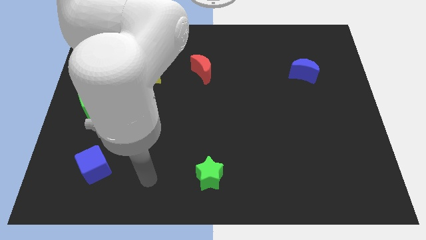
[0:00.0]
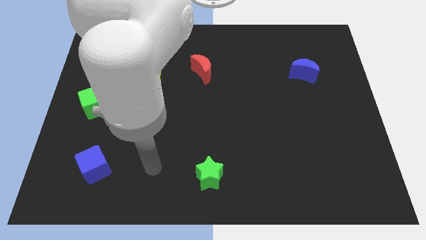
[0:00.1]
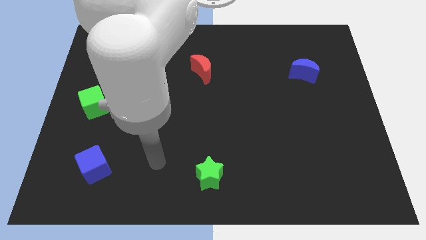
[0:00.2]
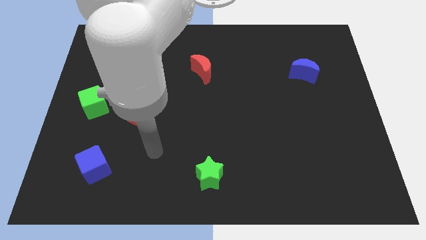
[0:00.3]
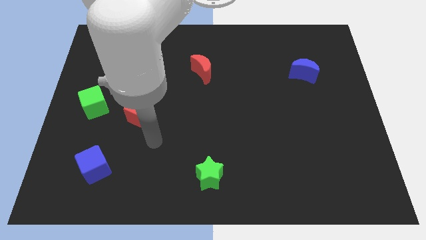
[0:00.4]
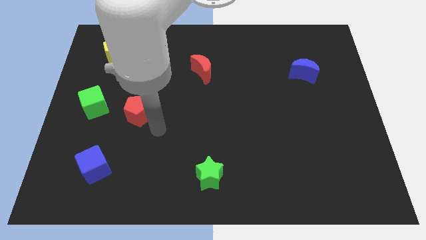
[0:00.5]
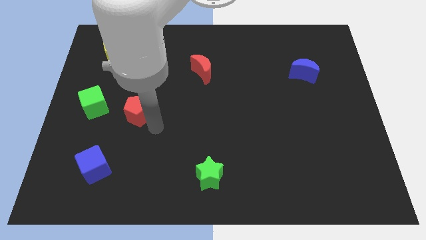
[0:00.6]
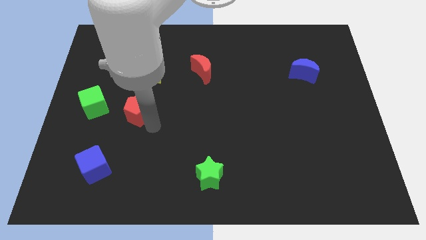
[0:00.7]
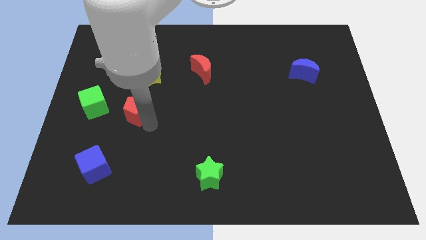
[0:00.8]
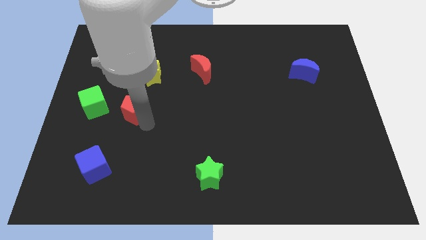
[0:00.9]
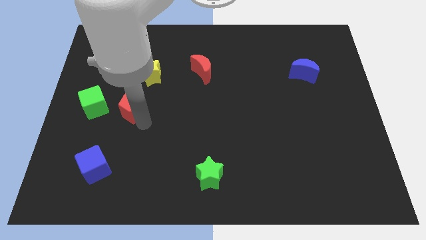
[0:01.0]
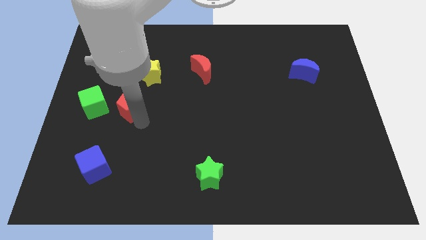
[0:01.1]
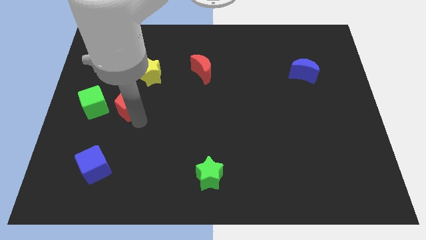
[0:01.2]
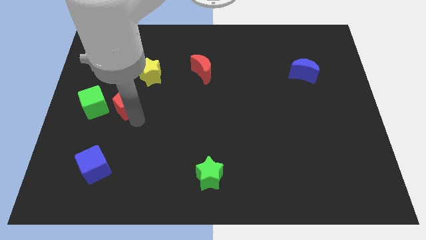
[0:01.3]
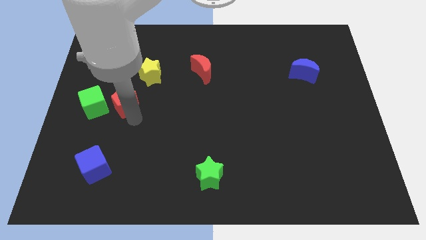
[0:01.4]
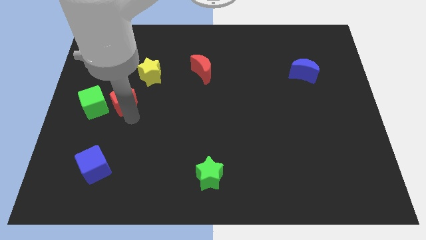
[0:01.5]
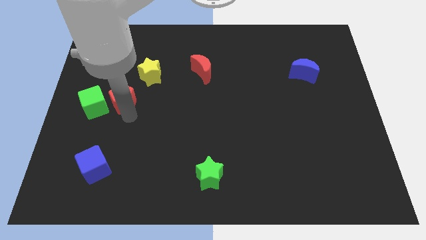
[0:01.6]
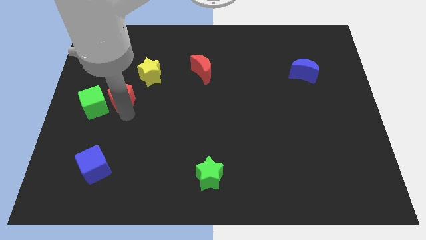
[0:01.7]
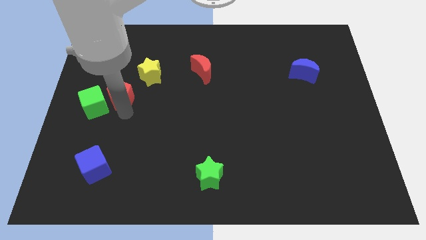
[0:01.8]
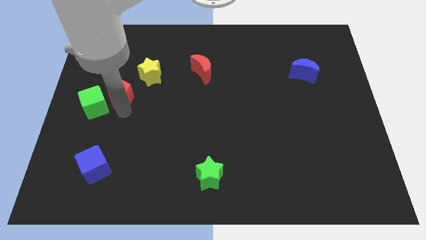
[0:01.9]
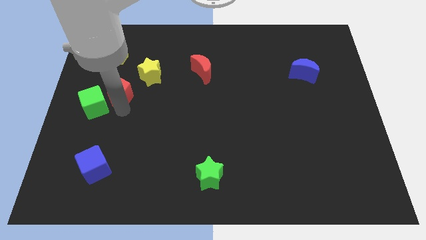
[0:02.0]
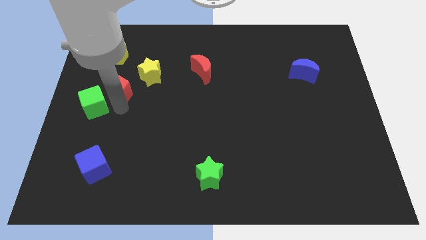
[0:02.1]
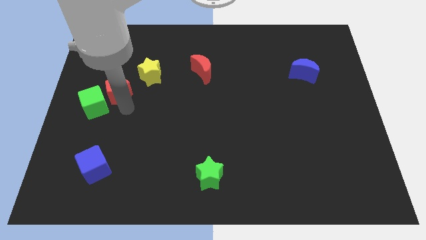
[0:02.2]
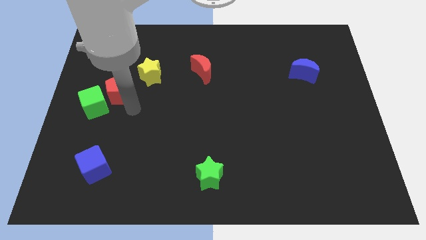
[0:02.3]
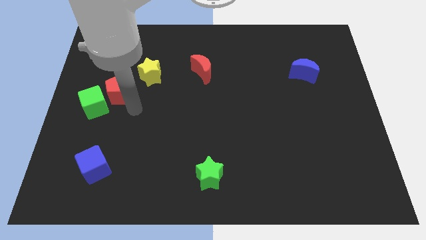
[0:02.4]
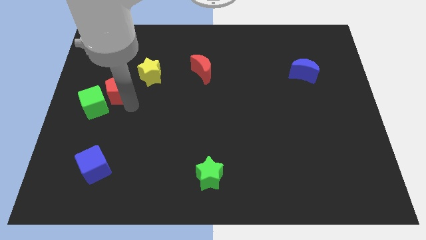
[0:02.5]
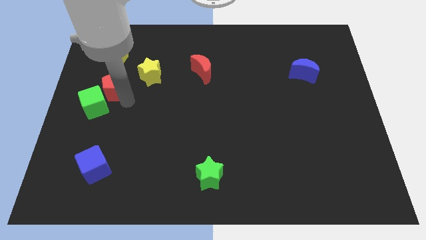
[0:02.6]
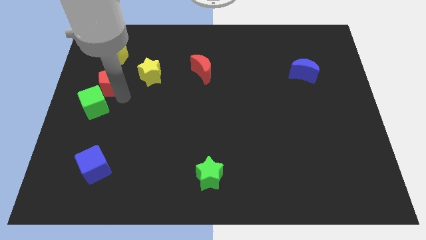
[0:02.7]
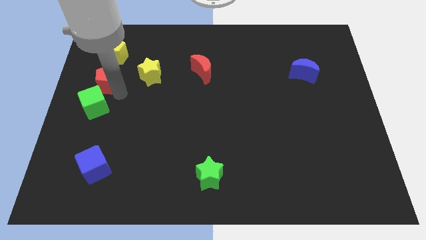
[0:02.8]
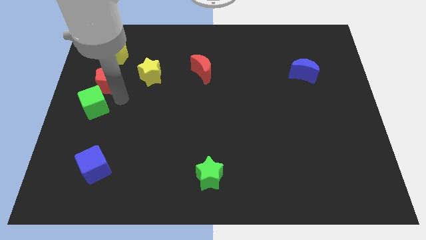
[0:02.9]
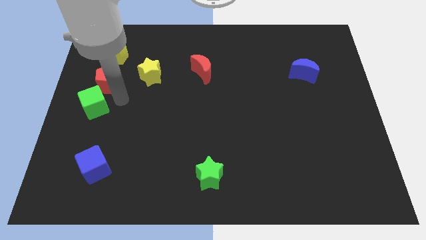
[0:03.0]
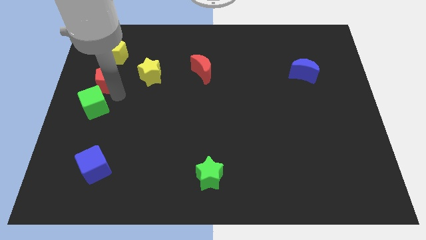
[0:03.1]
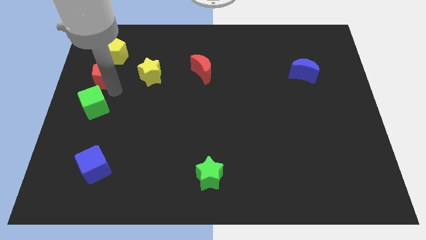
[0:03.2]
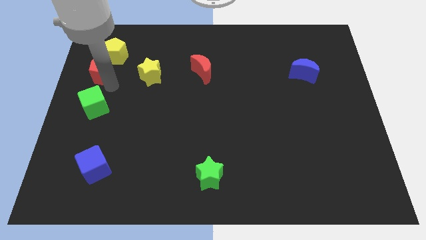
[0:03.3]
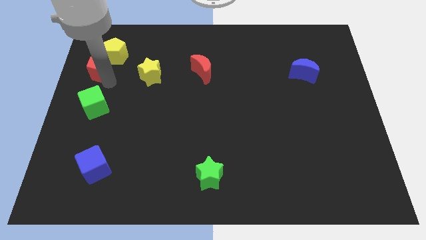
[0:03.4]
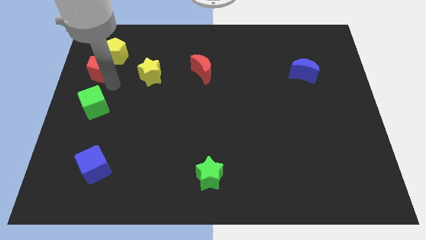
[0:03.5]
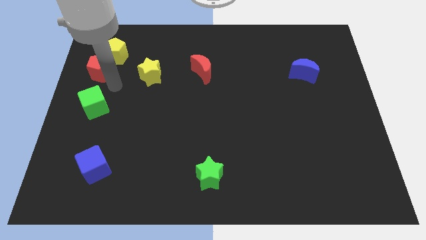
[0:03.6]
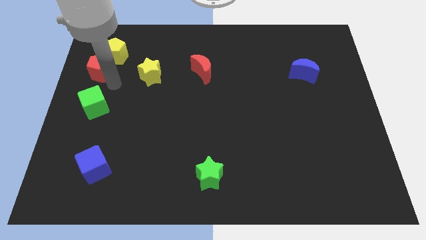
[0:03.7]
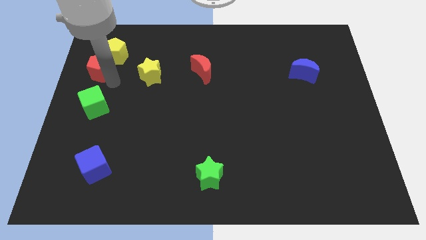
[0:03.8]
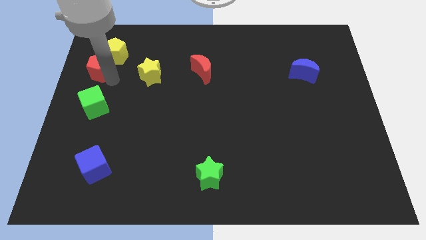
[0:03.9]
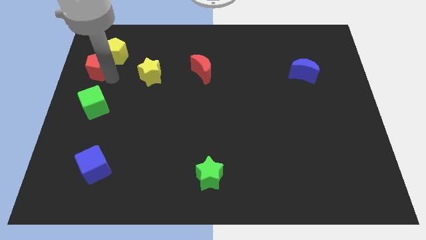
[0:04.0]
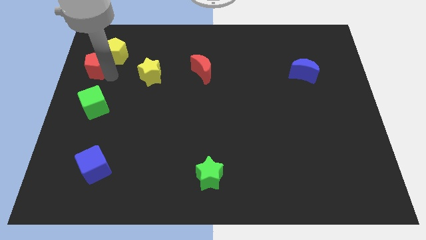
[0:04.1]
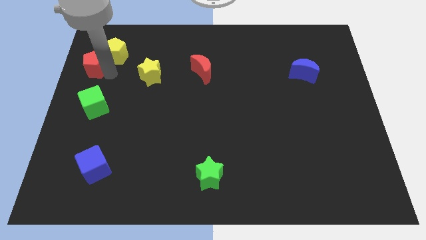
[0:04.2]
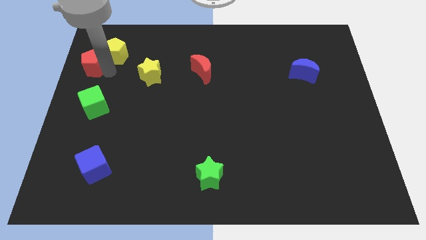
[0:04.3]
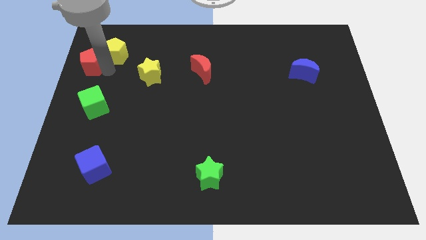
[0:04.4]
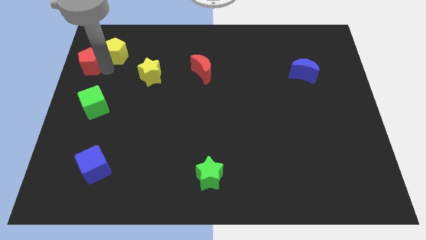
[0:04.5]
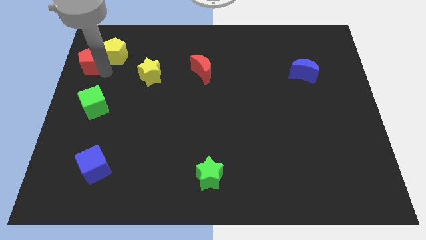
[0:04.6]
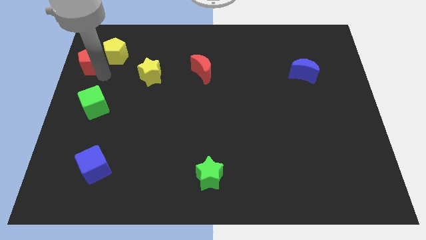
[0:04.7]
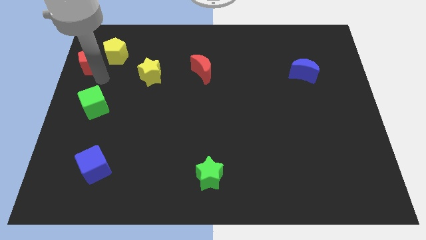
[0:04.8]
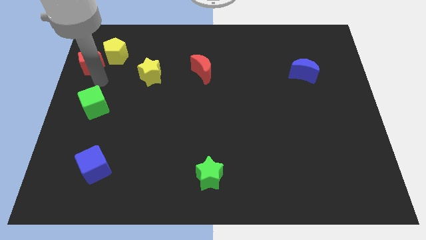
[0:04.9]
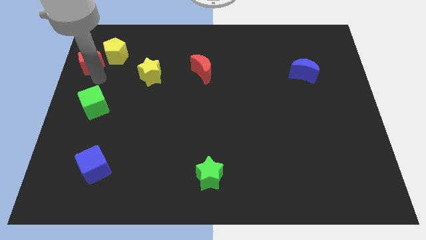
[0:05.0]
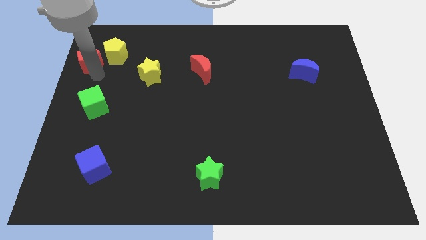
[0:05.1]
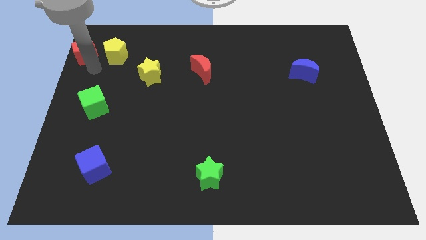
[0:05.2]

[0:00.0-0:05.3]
put the red pentagon to the upper left corner
